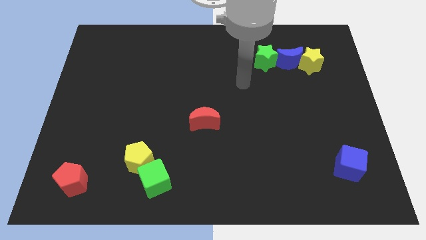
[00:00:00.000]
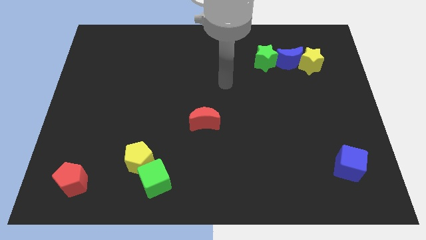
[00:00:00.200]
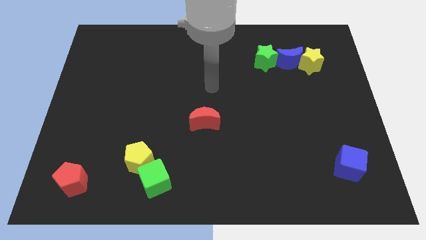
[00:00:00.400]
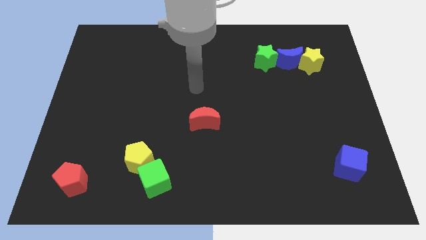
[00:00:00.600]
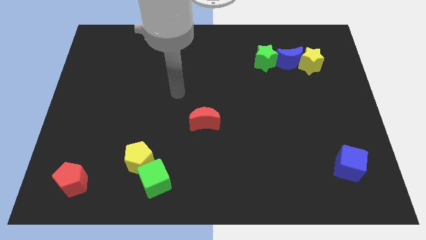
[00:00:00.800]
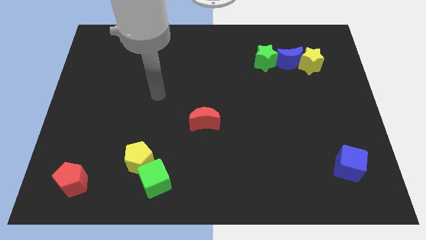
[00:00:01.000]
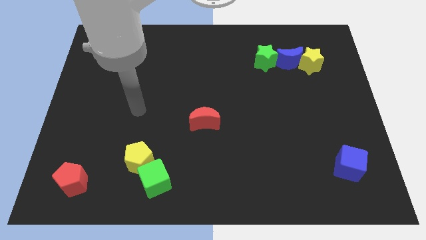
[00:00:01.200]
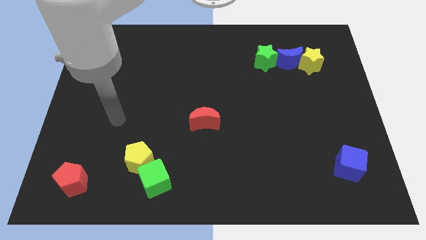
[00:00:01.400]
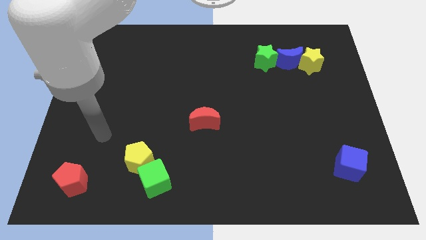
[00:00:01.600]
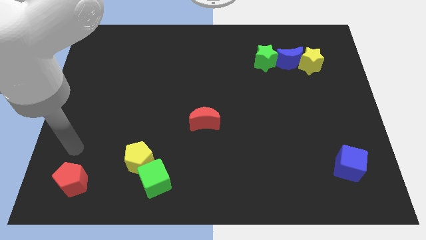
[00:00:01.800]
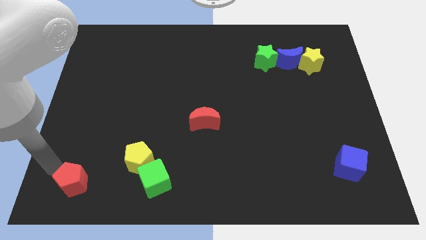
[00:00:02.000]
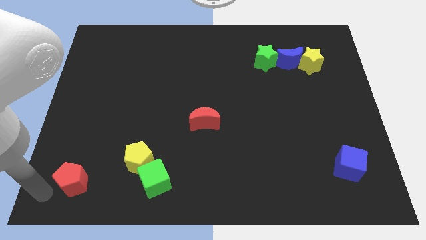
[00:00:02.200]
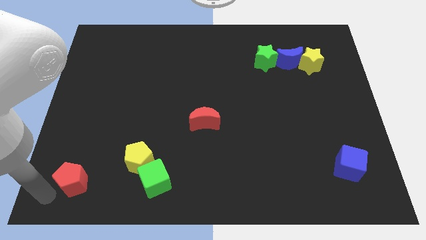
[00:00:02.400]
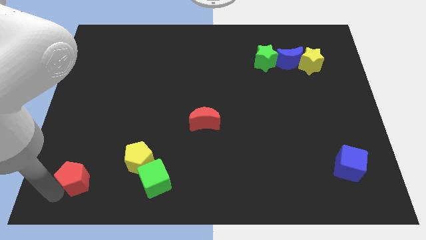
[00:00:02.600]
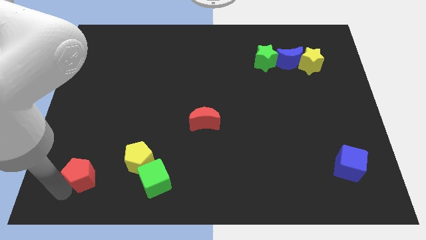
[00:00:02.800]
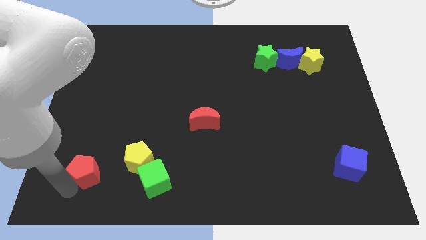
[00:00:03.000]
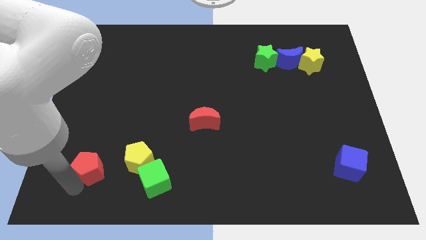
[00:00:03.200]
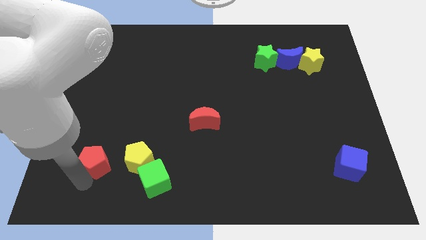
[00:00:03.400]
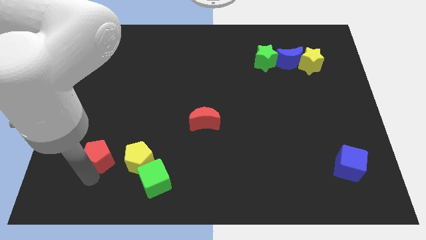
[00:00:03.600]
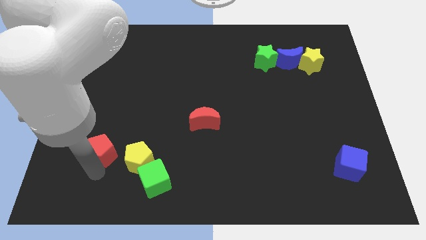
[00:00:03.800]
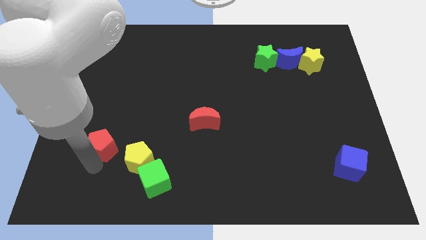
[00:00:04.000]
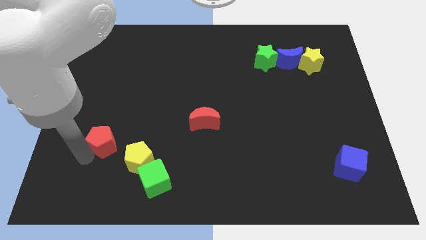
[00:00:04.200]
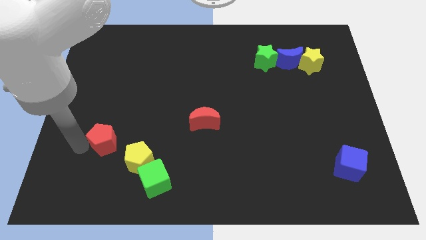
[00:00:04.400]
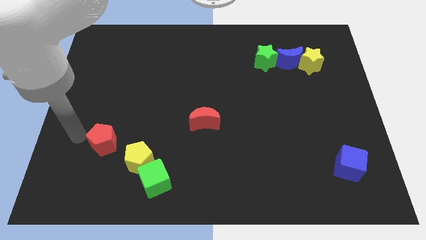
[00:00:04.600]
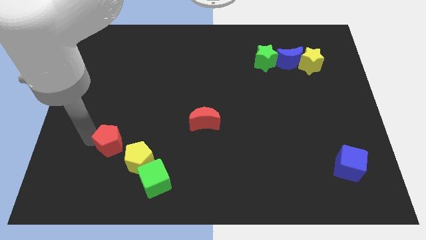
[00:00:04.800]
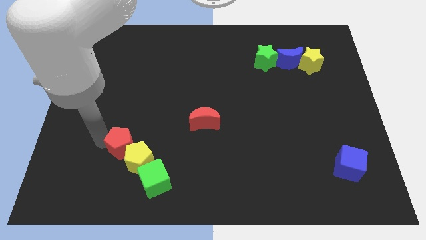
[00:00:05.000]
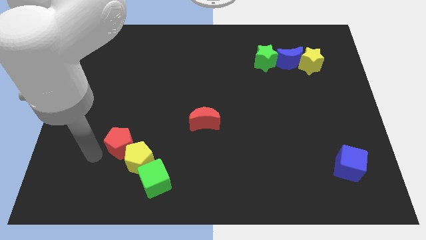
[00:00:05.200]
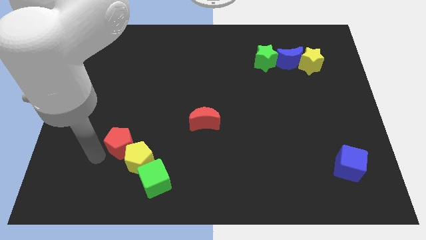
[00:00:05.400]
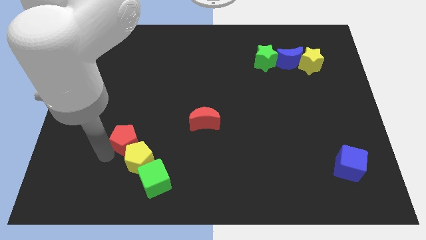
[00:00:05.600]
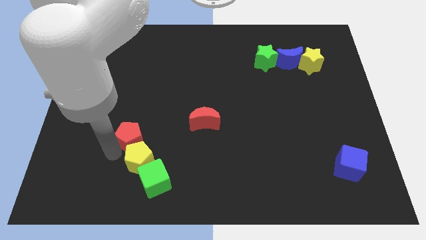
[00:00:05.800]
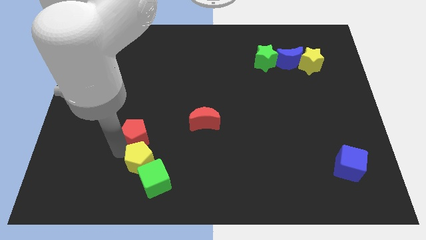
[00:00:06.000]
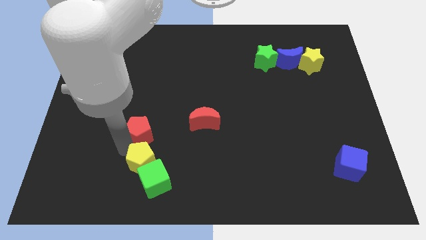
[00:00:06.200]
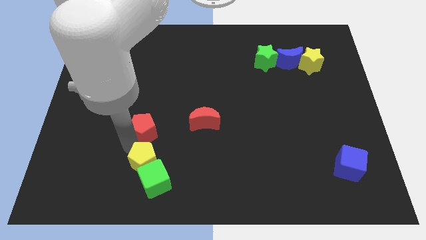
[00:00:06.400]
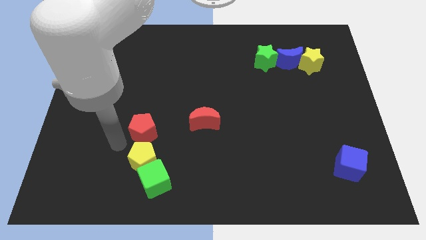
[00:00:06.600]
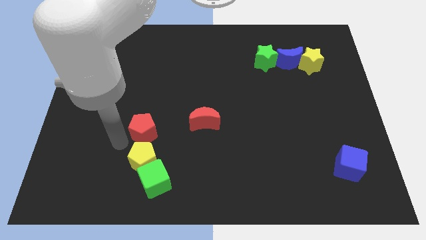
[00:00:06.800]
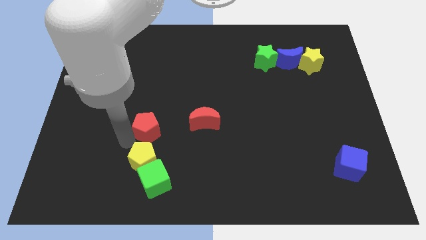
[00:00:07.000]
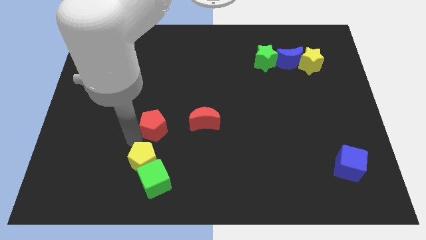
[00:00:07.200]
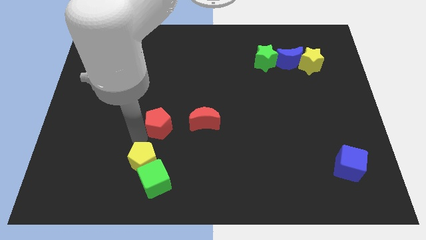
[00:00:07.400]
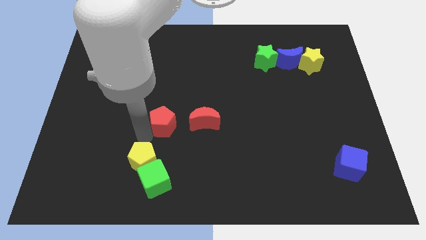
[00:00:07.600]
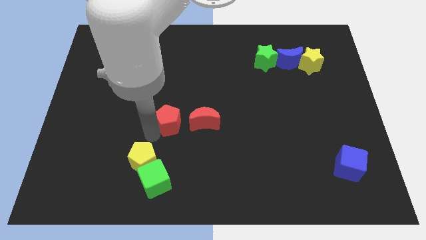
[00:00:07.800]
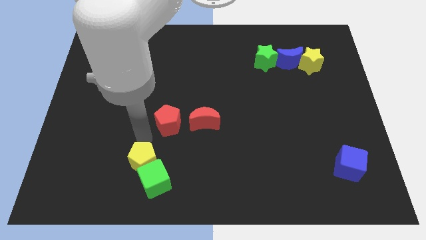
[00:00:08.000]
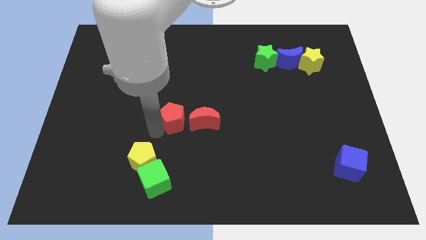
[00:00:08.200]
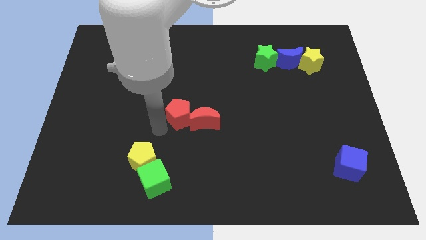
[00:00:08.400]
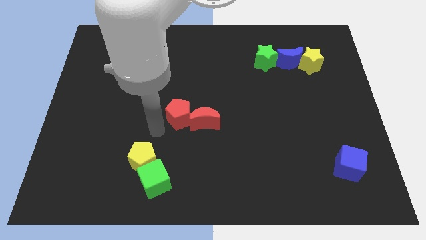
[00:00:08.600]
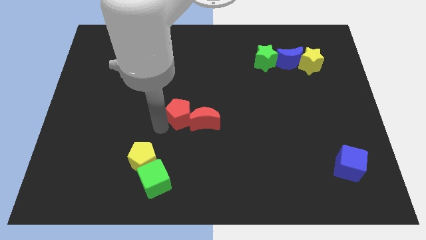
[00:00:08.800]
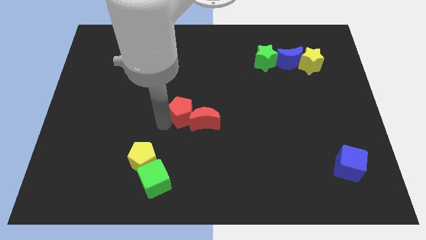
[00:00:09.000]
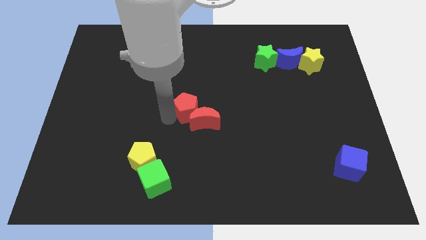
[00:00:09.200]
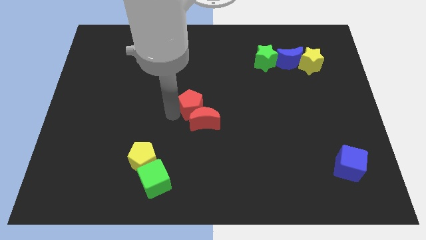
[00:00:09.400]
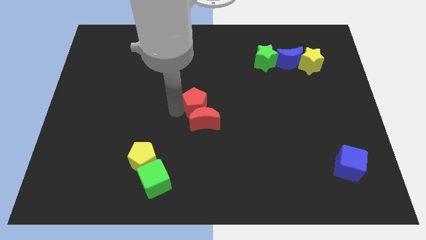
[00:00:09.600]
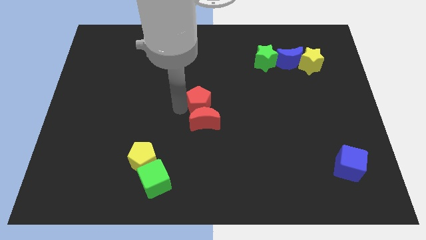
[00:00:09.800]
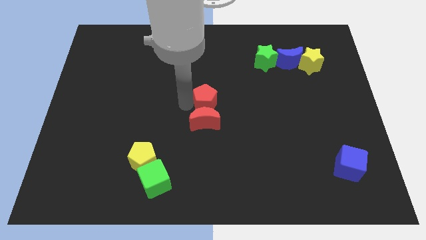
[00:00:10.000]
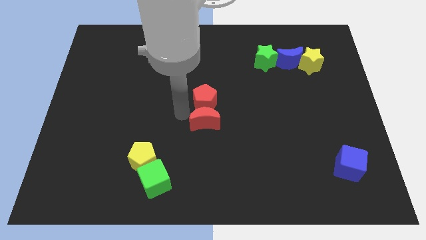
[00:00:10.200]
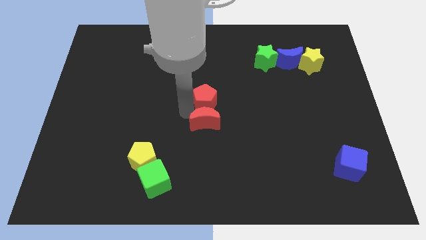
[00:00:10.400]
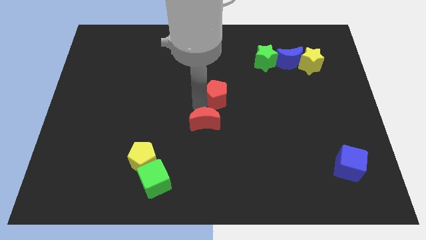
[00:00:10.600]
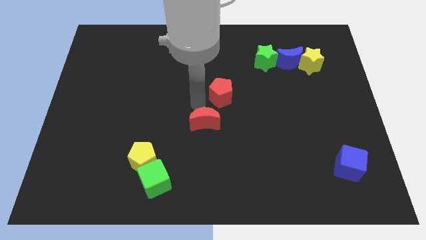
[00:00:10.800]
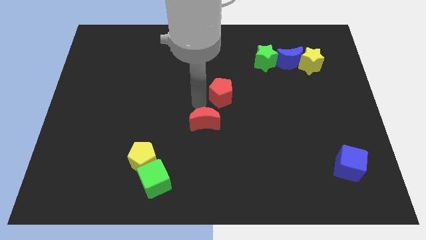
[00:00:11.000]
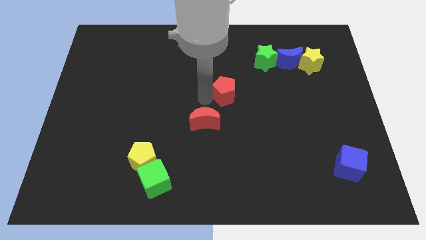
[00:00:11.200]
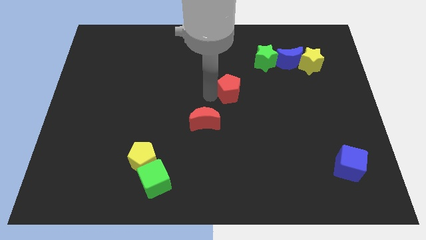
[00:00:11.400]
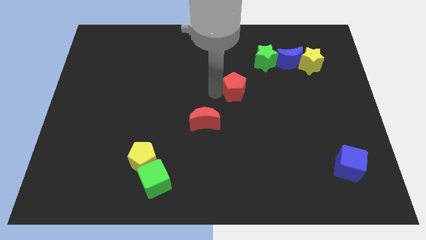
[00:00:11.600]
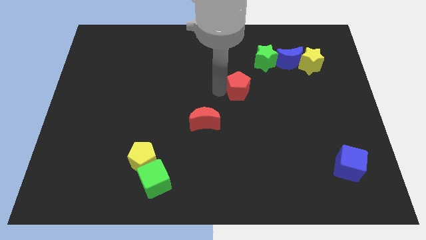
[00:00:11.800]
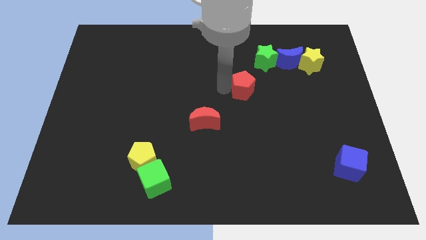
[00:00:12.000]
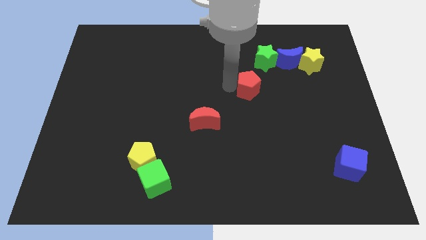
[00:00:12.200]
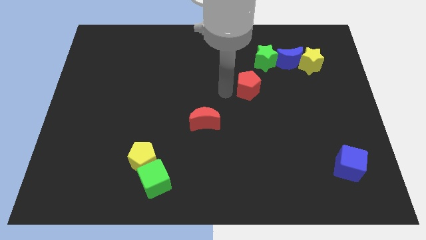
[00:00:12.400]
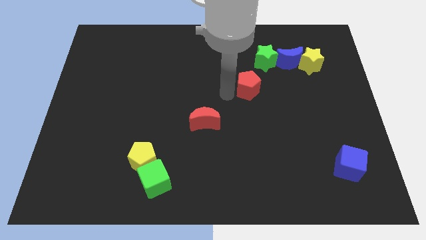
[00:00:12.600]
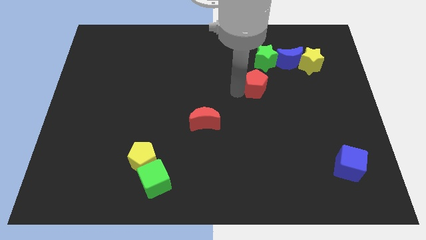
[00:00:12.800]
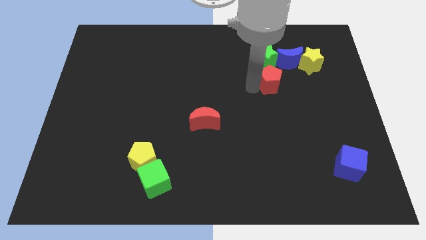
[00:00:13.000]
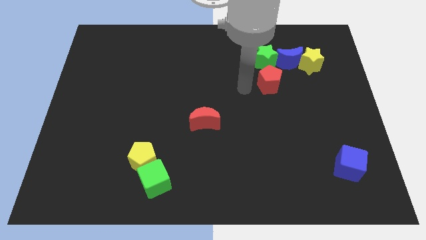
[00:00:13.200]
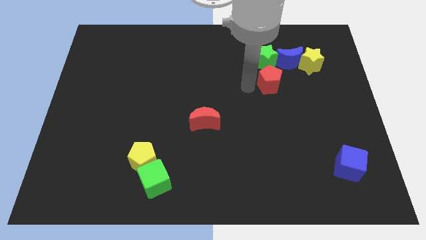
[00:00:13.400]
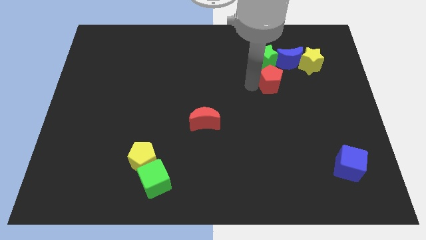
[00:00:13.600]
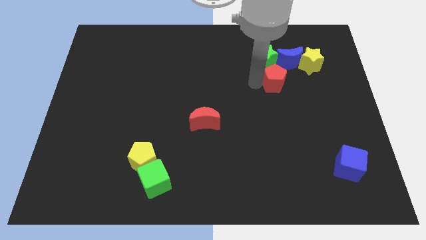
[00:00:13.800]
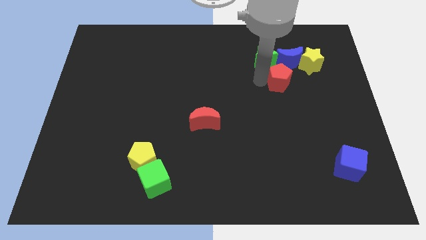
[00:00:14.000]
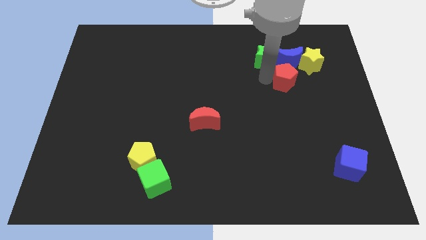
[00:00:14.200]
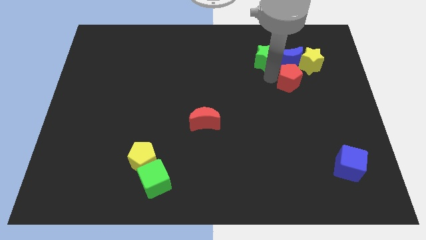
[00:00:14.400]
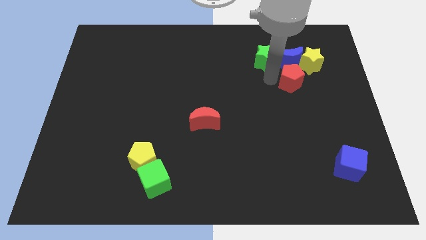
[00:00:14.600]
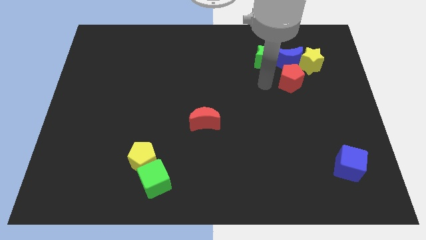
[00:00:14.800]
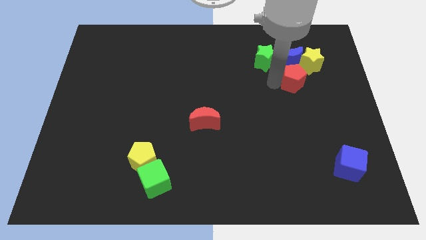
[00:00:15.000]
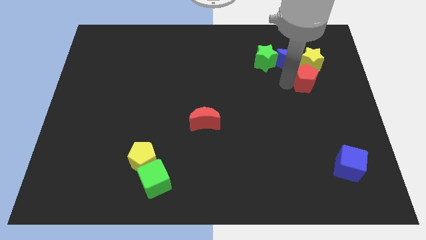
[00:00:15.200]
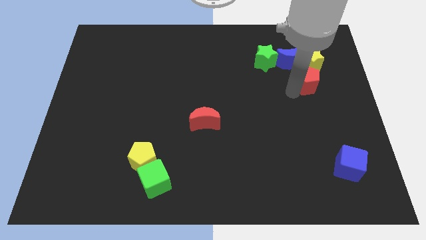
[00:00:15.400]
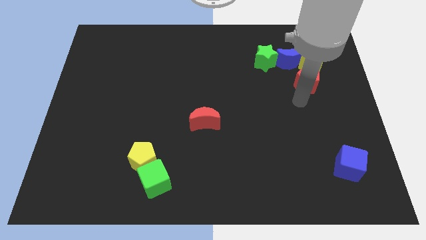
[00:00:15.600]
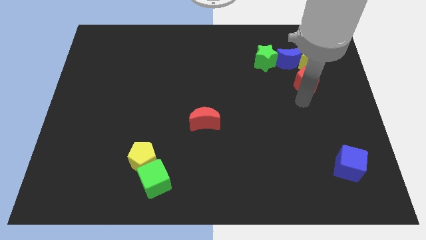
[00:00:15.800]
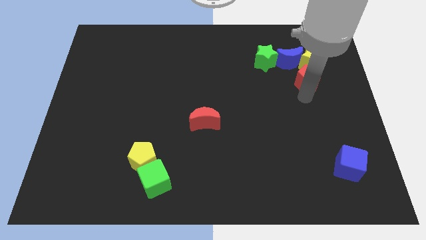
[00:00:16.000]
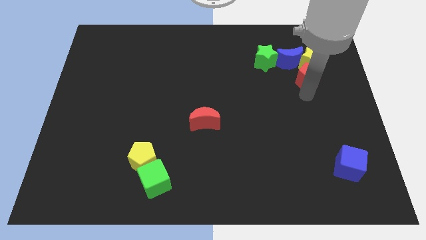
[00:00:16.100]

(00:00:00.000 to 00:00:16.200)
move the red pentagon close to the yellow star
